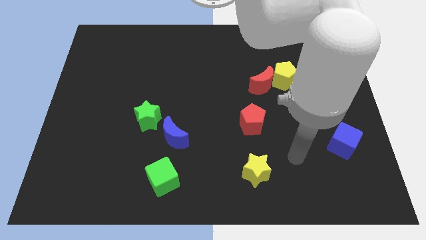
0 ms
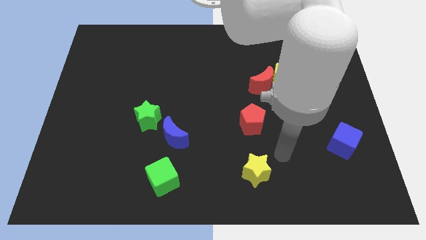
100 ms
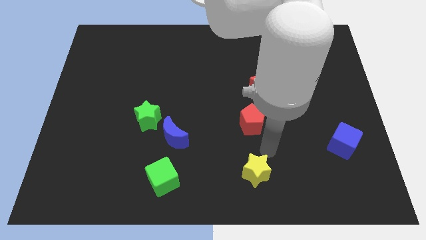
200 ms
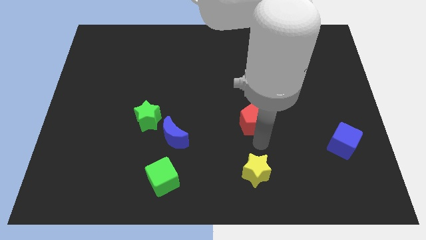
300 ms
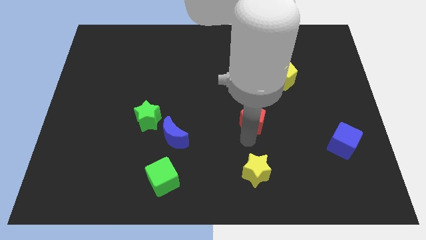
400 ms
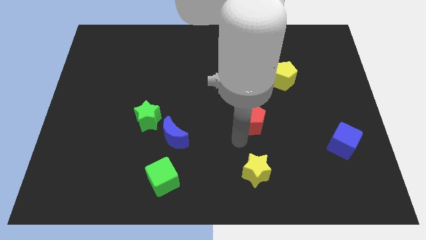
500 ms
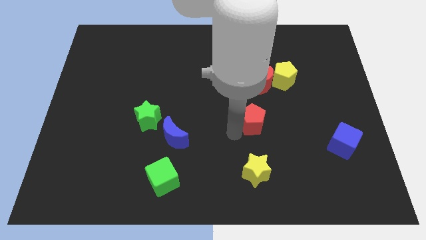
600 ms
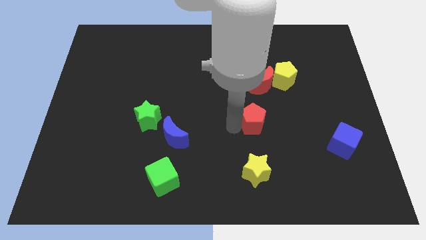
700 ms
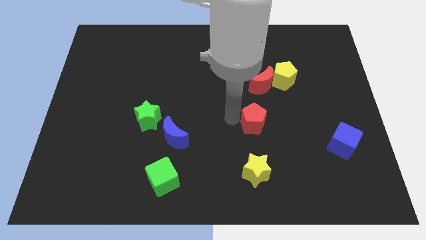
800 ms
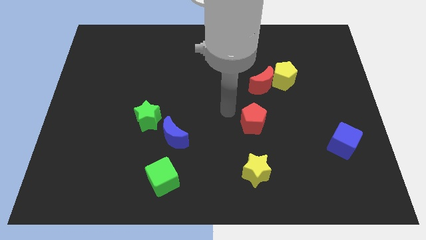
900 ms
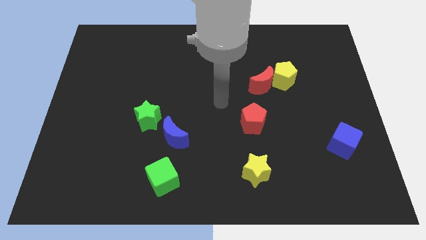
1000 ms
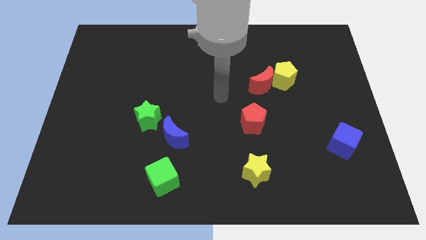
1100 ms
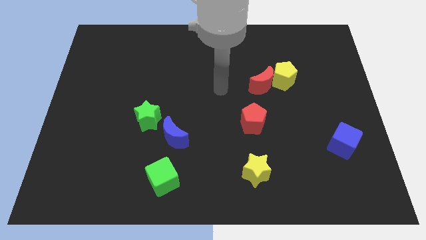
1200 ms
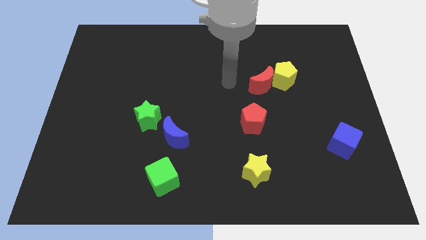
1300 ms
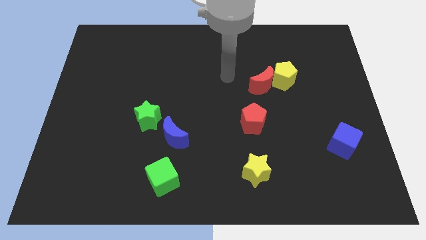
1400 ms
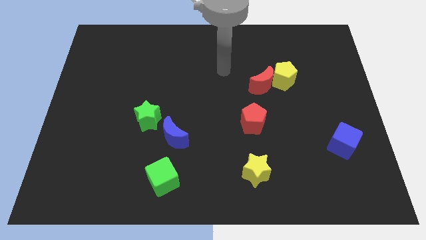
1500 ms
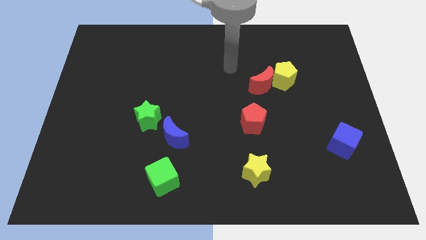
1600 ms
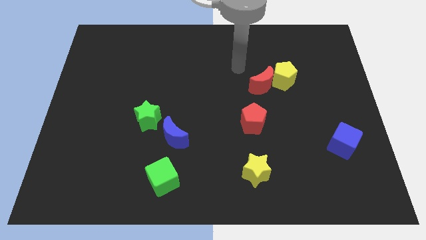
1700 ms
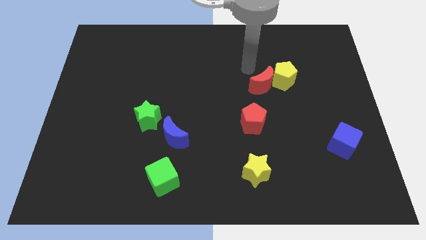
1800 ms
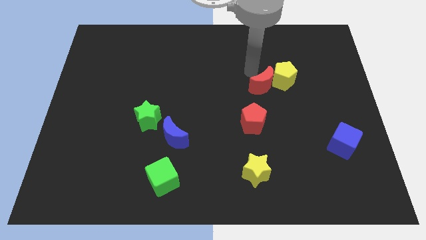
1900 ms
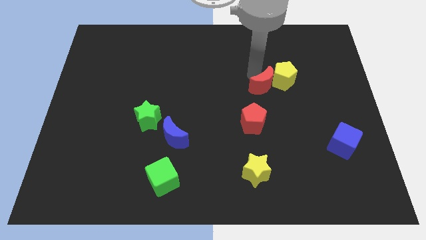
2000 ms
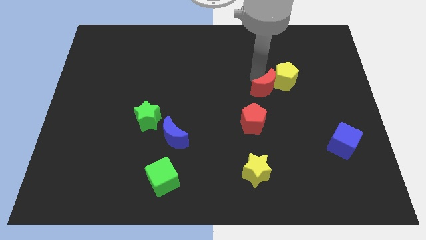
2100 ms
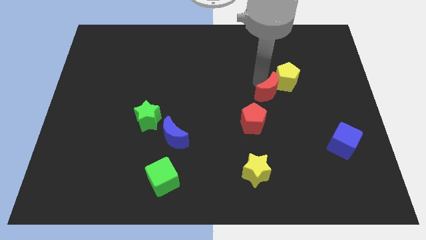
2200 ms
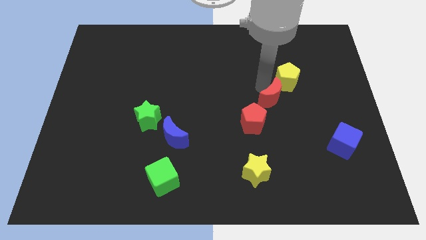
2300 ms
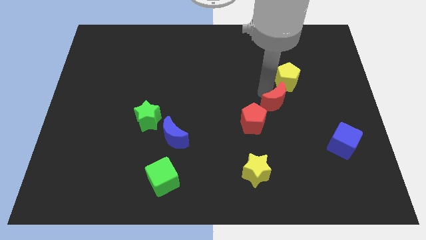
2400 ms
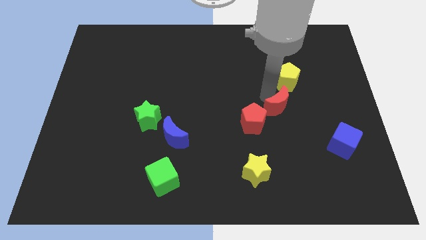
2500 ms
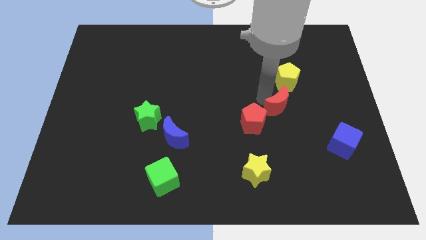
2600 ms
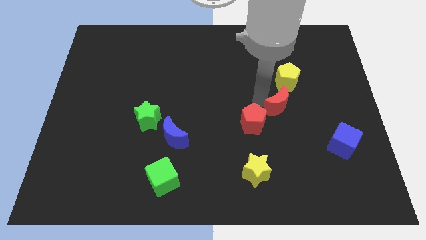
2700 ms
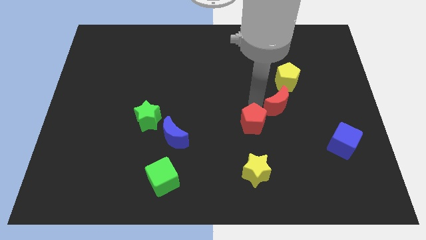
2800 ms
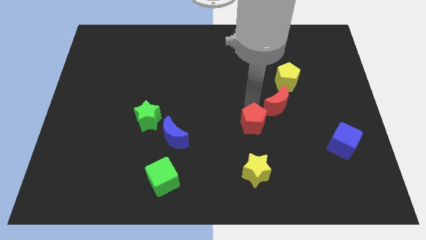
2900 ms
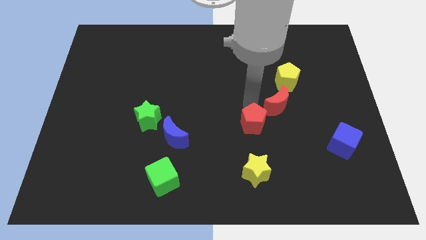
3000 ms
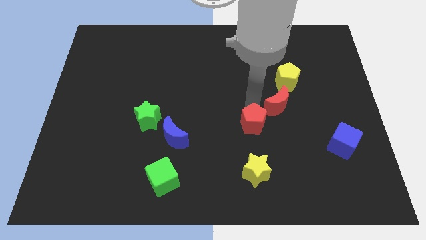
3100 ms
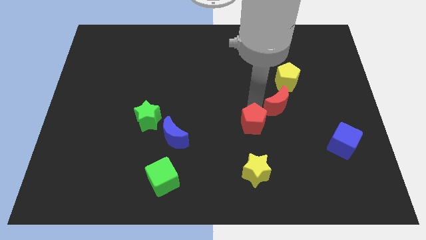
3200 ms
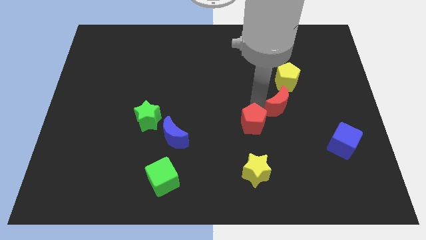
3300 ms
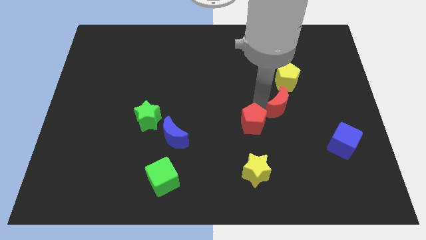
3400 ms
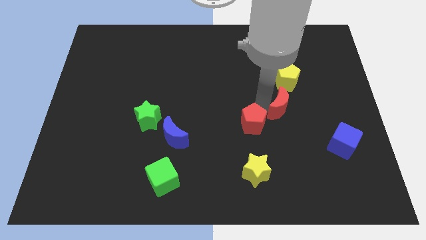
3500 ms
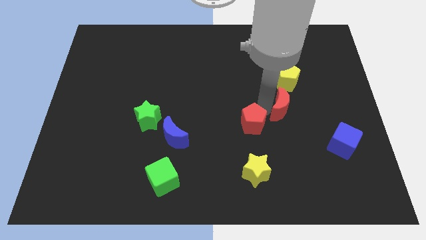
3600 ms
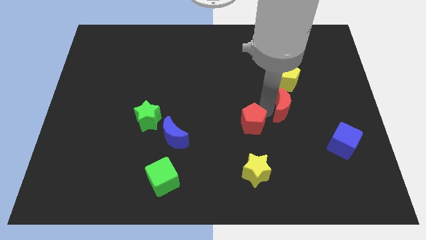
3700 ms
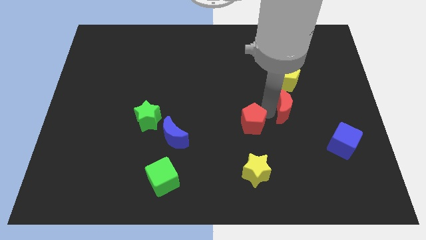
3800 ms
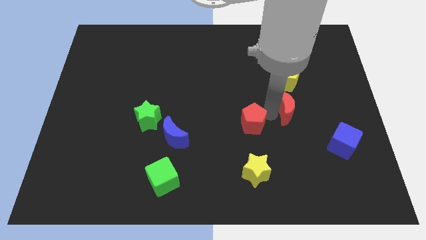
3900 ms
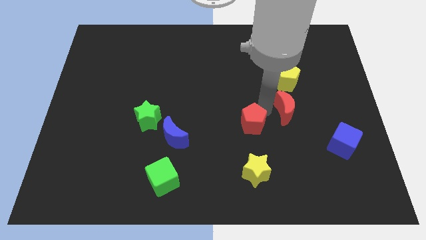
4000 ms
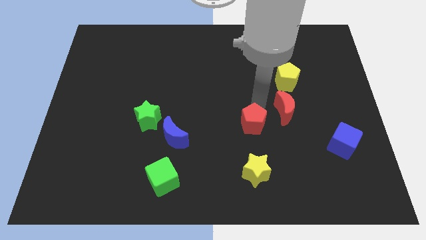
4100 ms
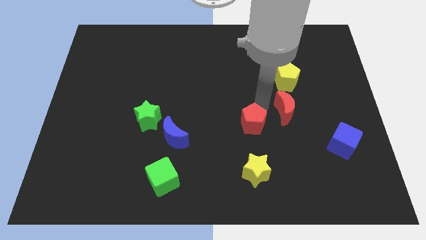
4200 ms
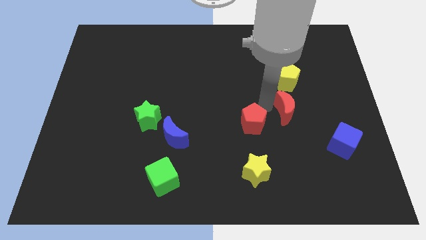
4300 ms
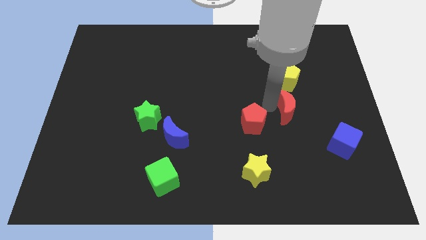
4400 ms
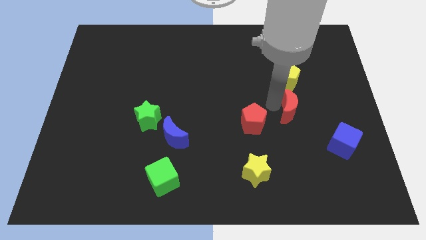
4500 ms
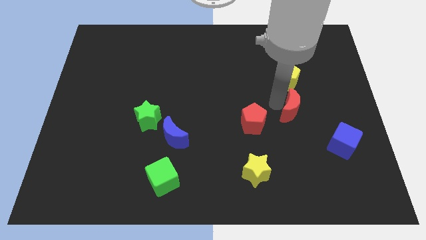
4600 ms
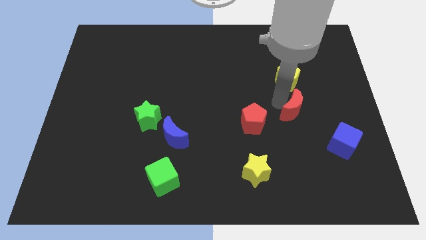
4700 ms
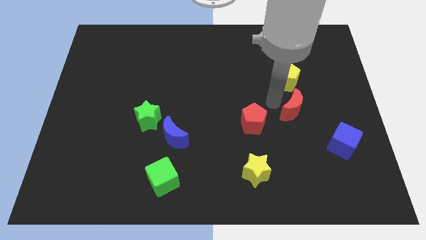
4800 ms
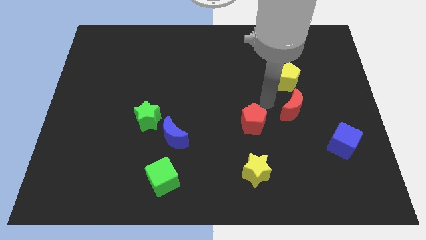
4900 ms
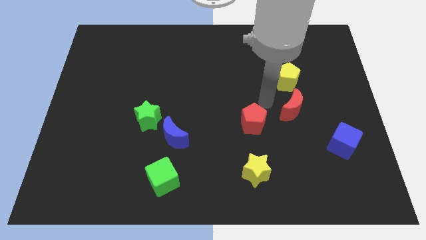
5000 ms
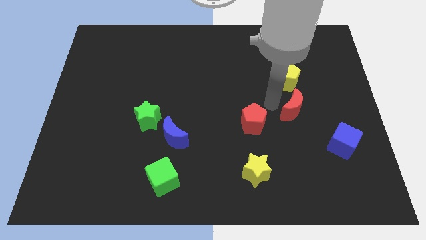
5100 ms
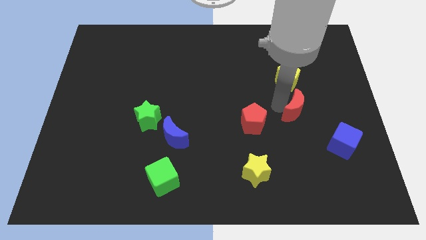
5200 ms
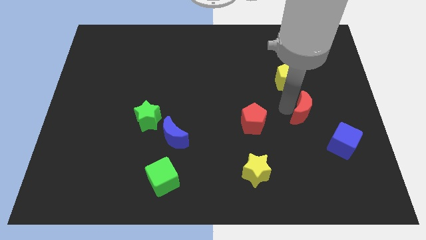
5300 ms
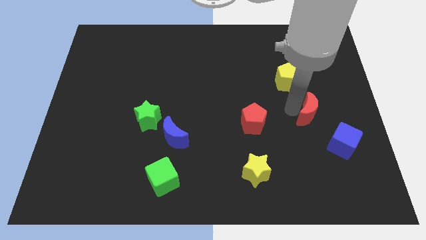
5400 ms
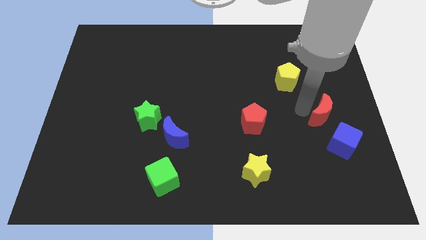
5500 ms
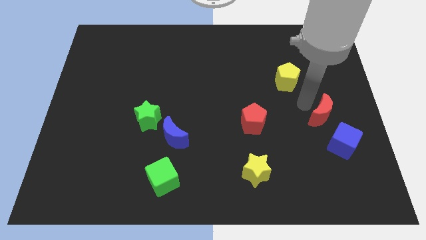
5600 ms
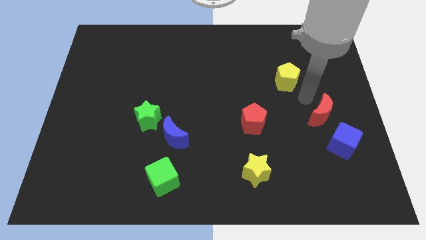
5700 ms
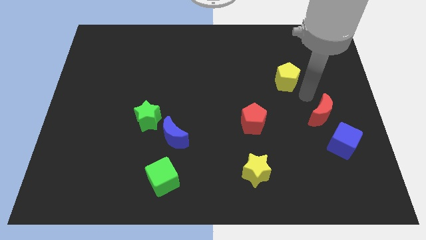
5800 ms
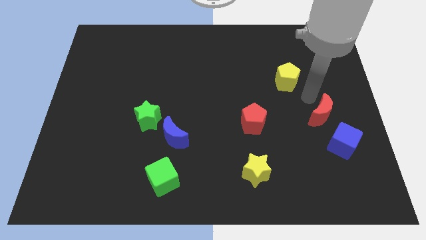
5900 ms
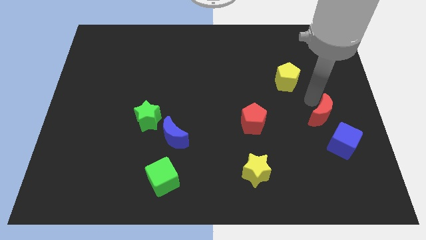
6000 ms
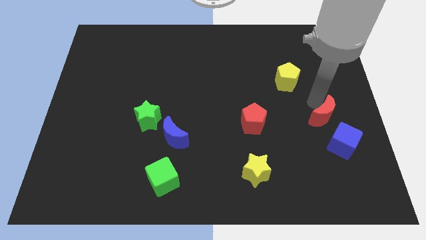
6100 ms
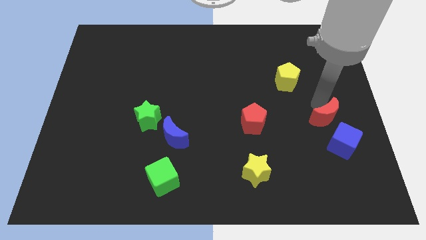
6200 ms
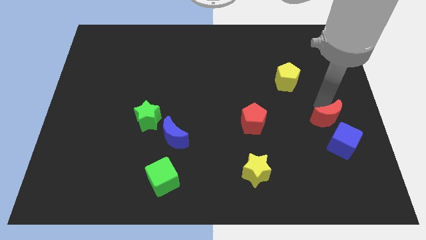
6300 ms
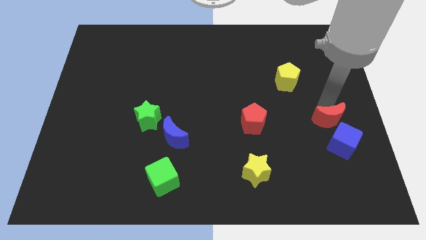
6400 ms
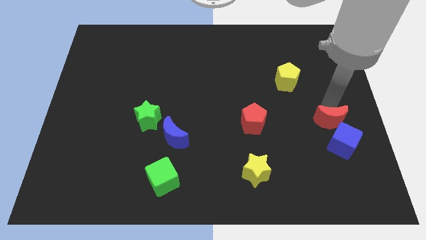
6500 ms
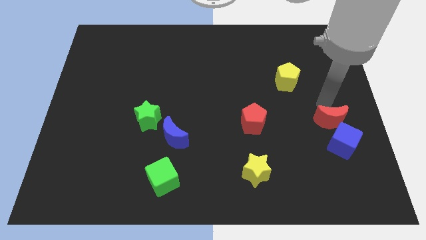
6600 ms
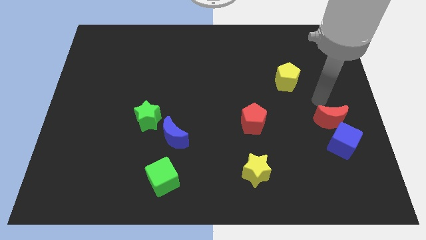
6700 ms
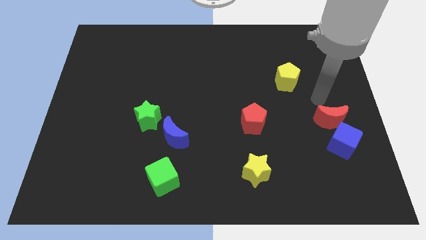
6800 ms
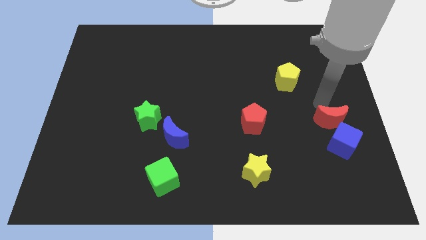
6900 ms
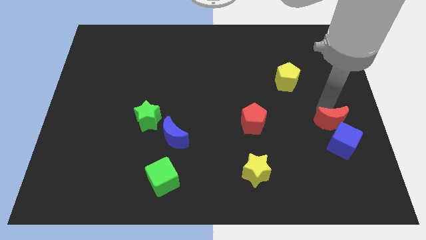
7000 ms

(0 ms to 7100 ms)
slide the red moon towards the blue cube
